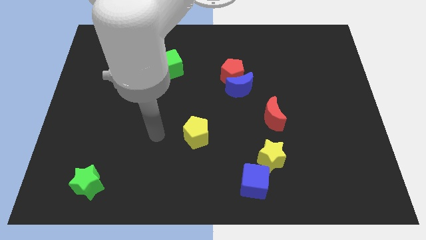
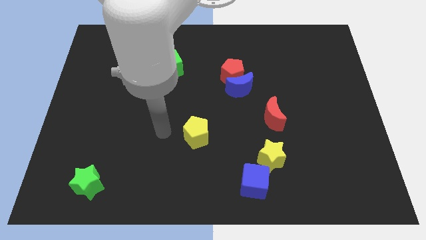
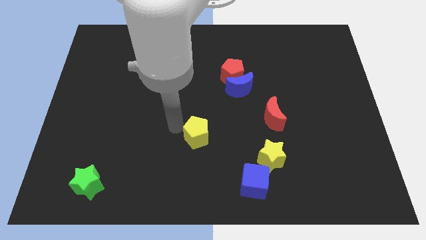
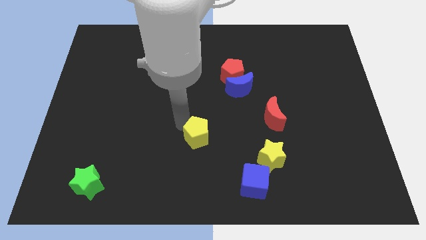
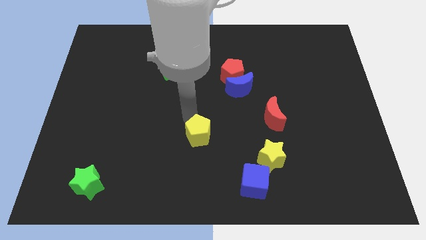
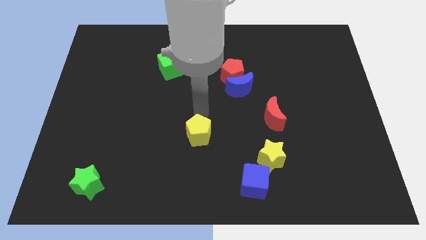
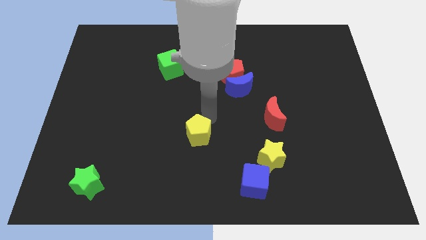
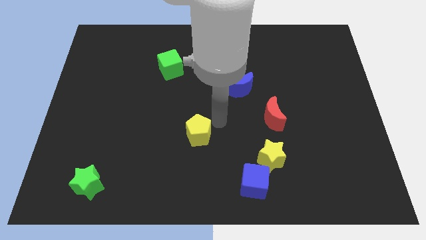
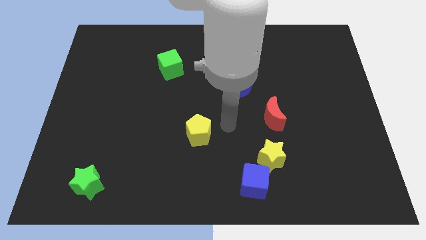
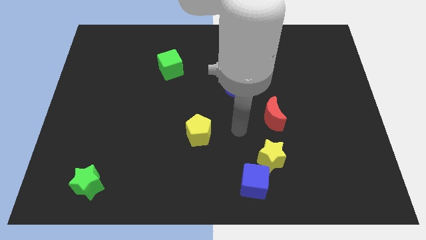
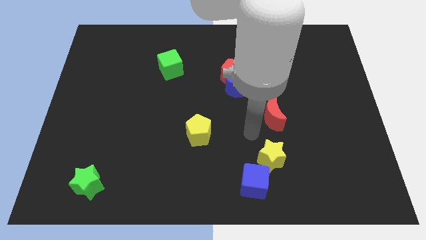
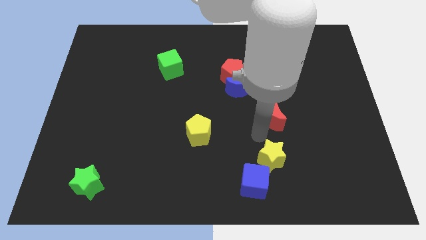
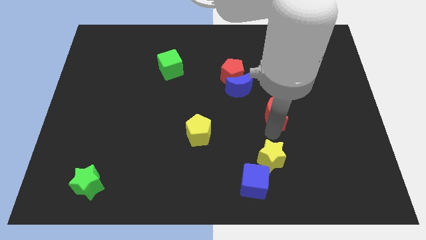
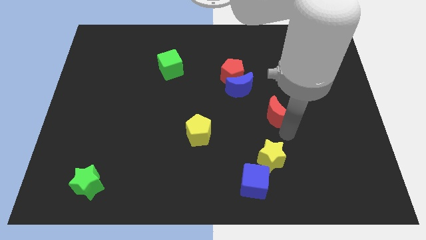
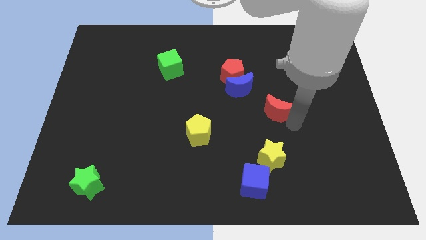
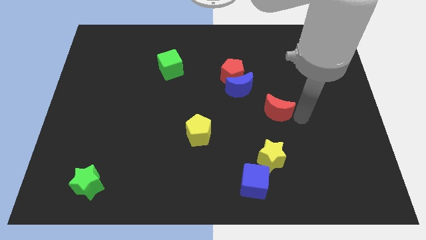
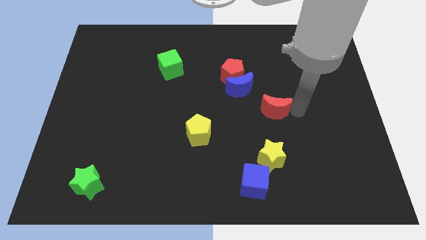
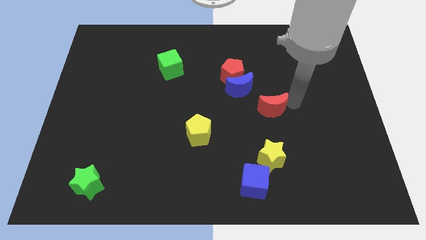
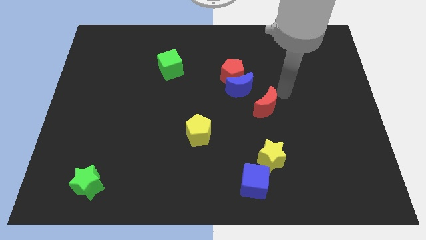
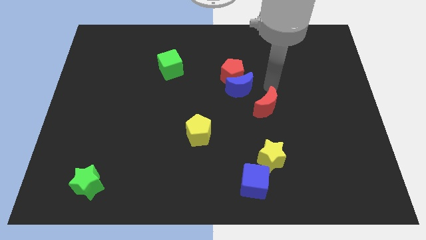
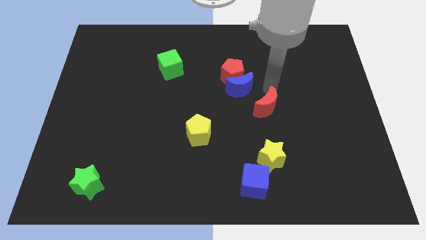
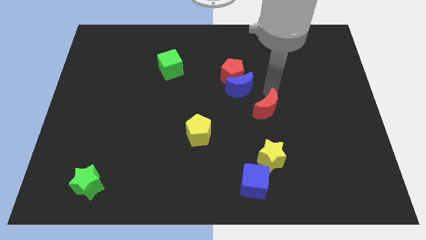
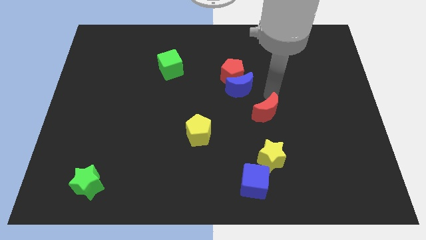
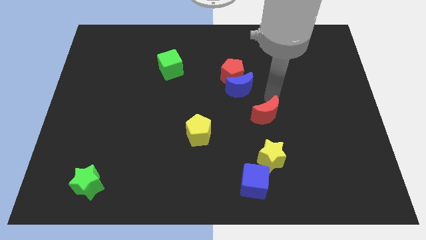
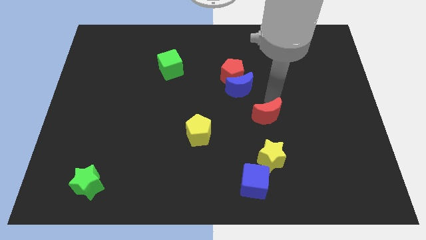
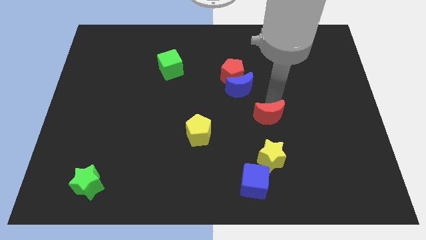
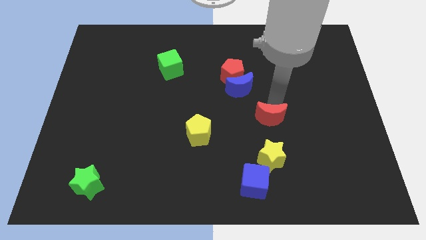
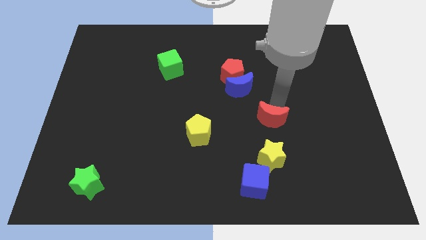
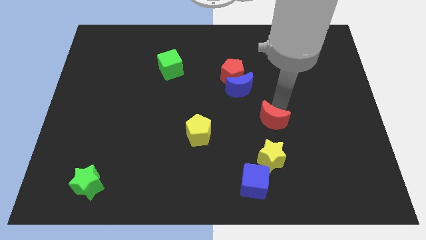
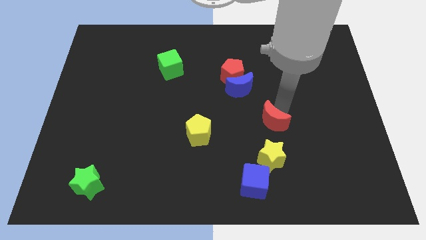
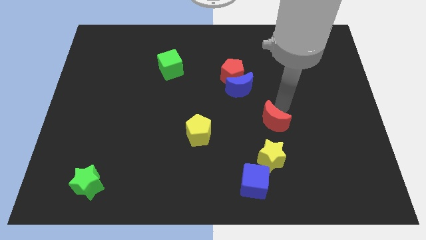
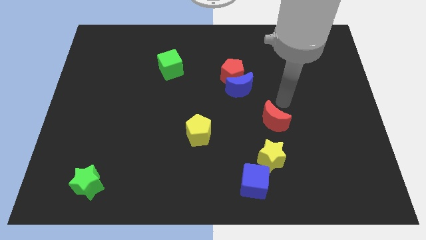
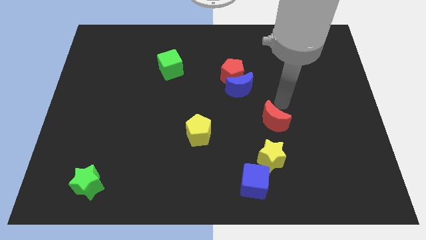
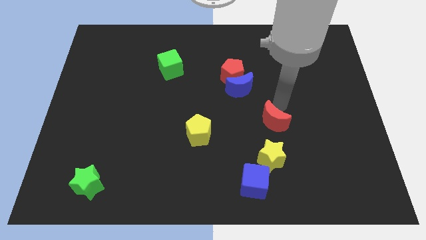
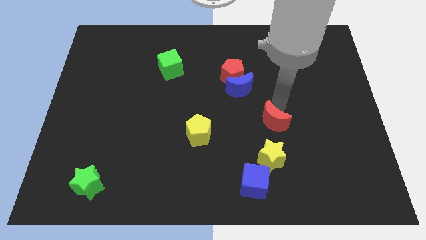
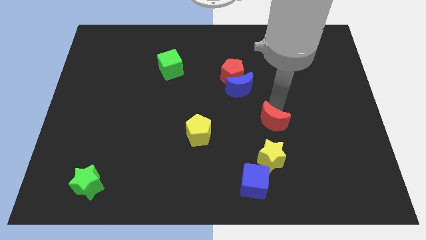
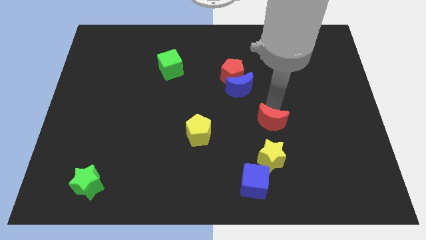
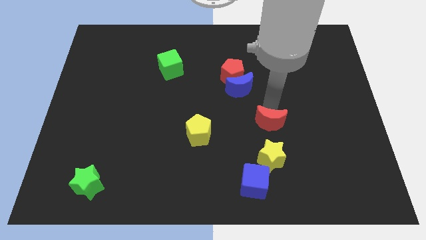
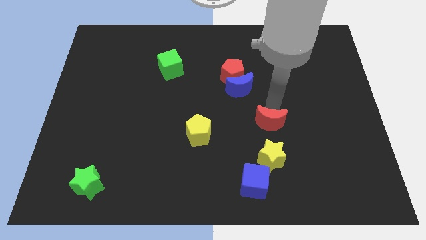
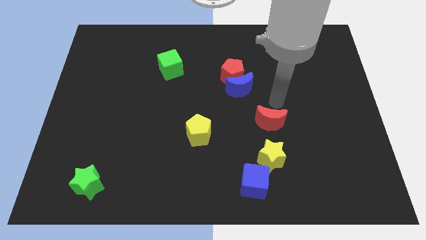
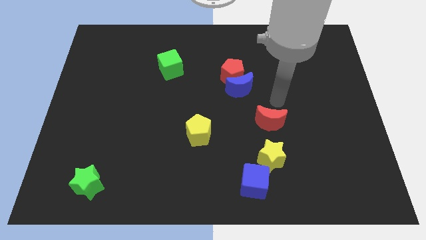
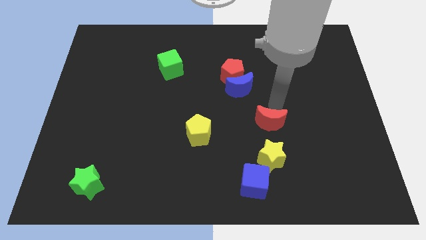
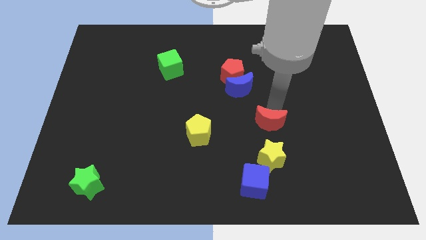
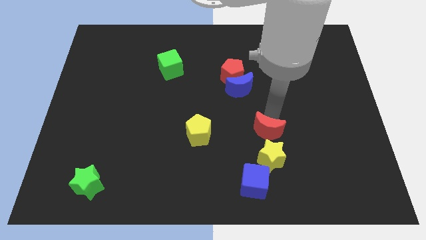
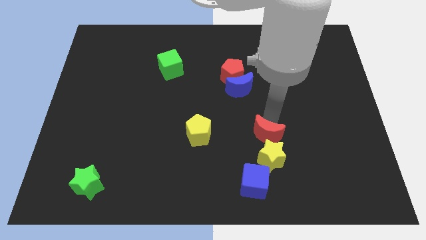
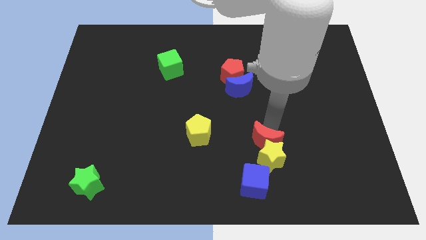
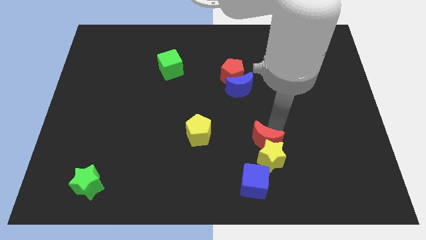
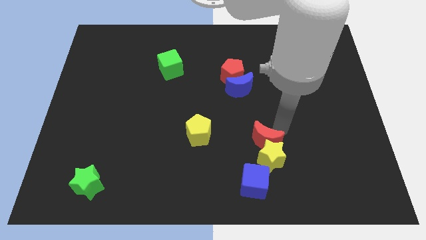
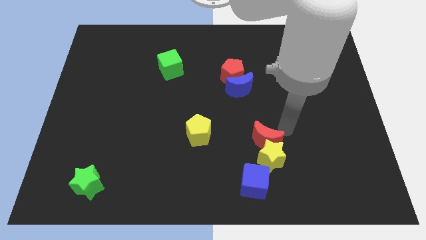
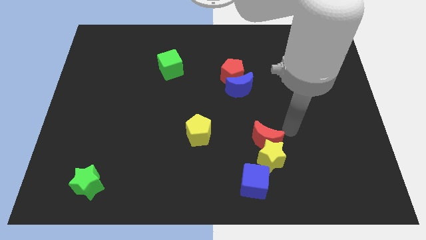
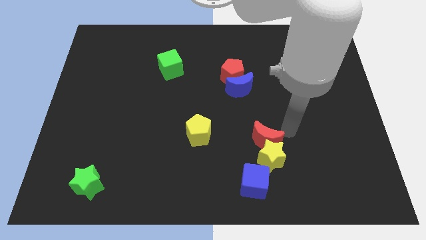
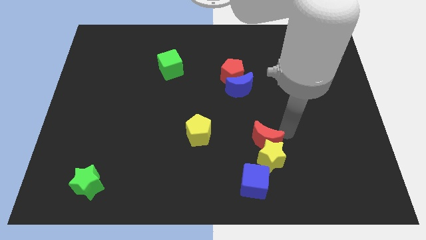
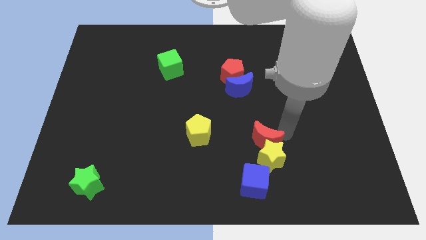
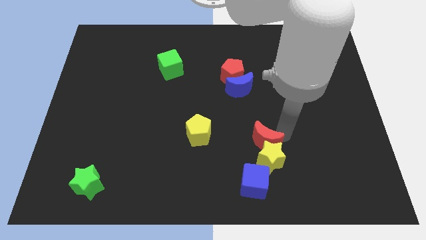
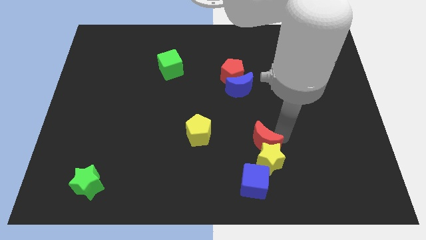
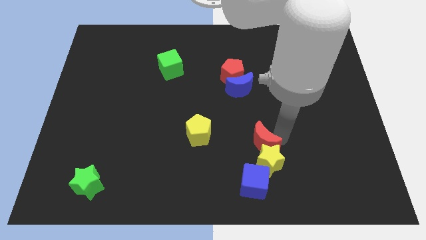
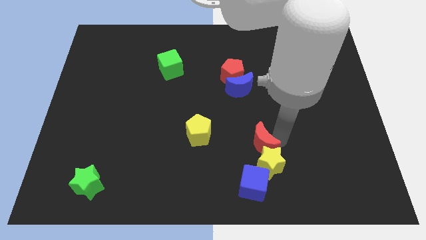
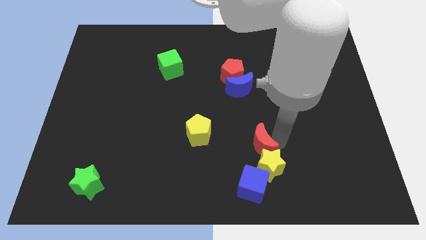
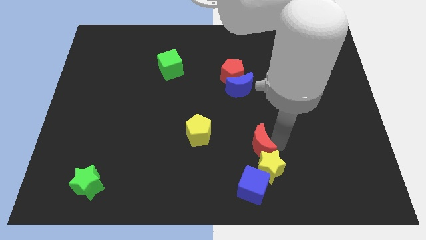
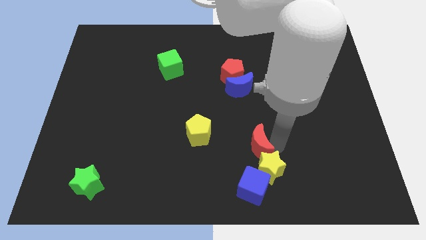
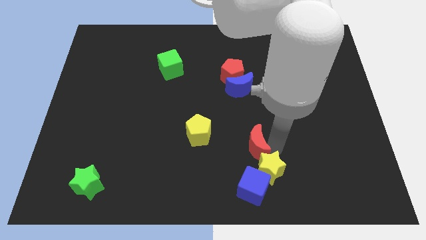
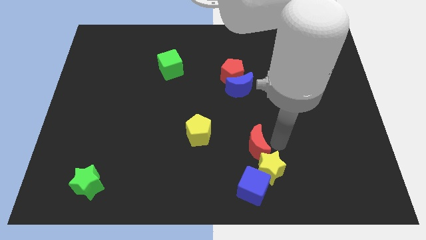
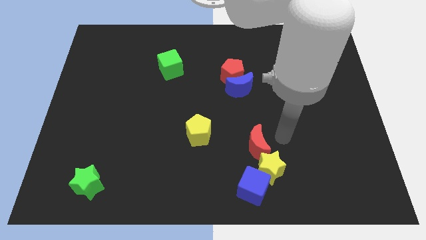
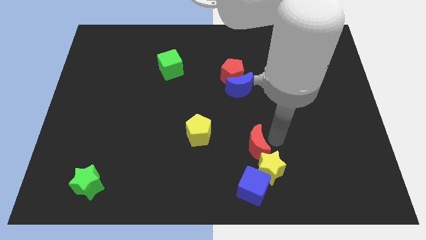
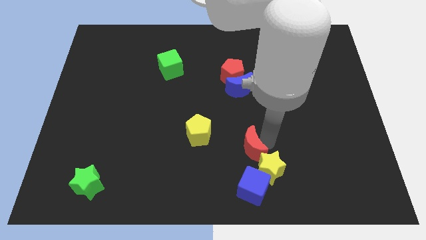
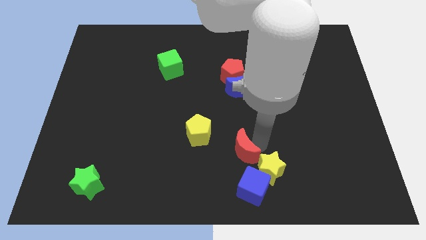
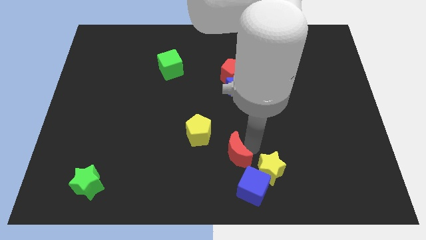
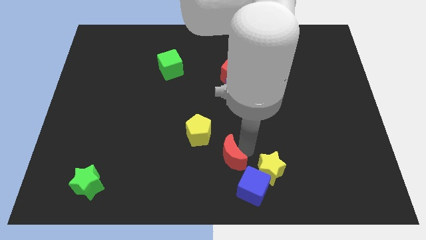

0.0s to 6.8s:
move the red moon to the bottom
